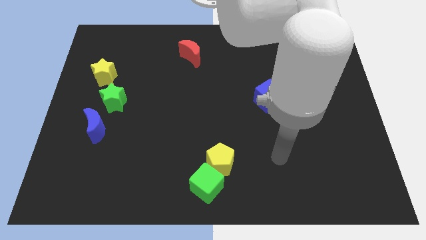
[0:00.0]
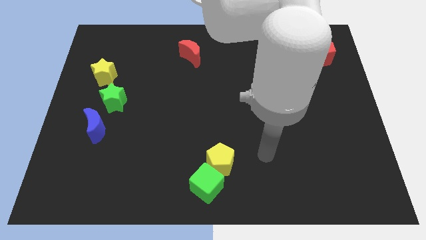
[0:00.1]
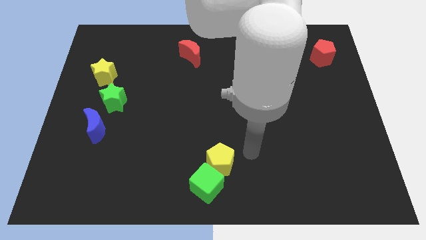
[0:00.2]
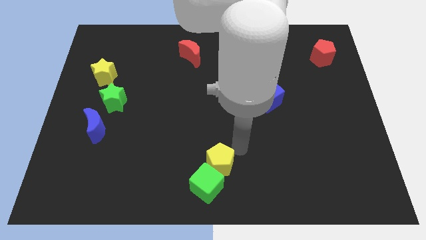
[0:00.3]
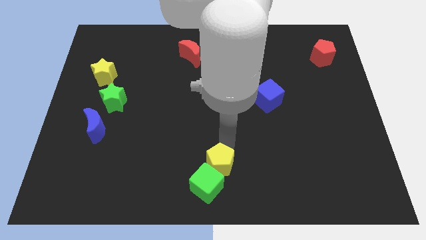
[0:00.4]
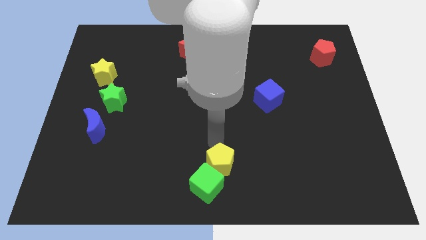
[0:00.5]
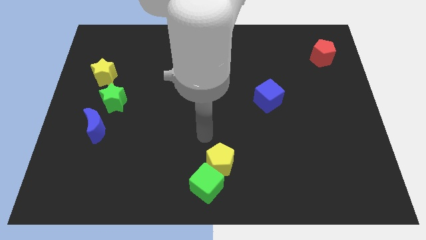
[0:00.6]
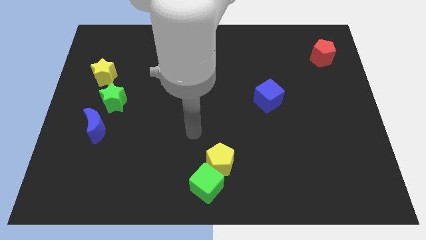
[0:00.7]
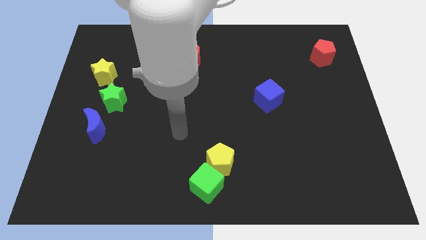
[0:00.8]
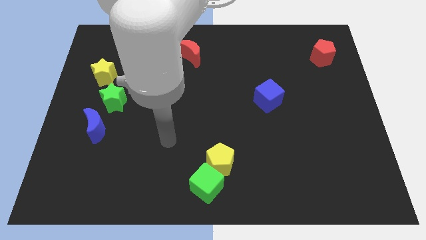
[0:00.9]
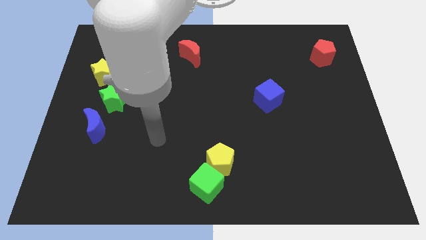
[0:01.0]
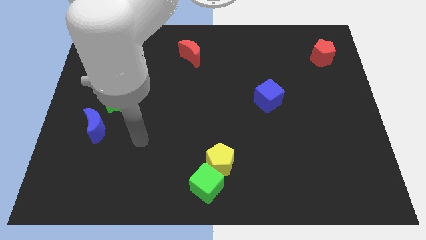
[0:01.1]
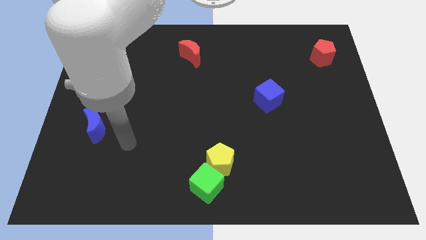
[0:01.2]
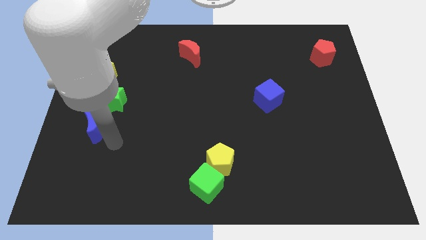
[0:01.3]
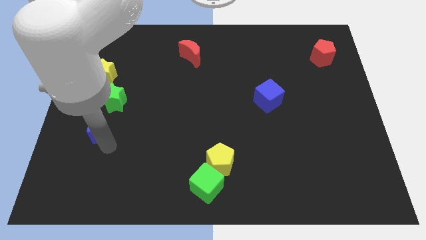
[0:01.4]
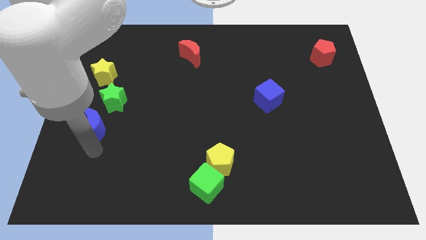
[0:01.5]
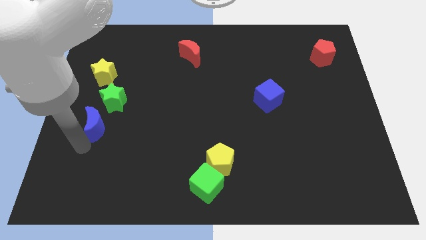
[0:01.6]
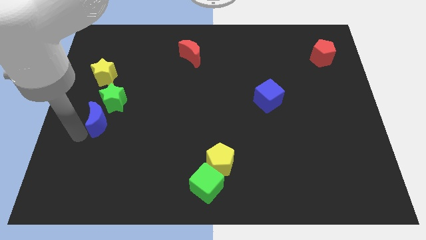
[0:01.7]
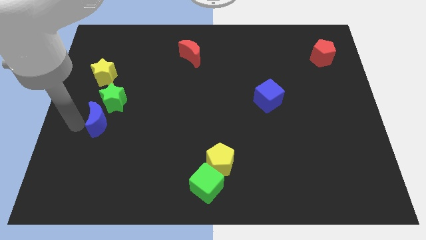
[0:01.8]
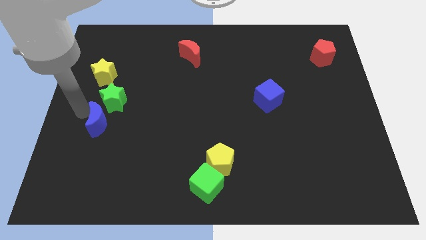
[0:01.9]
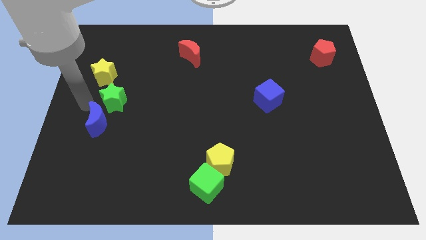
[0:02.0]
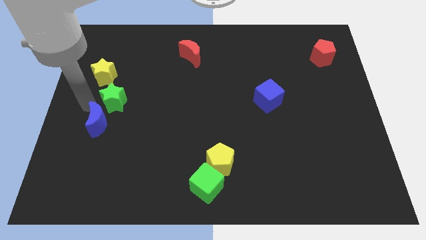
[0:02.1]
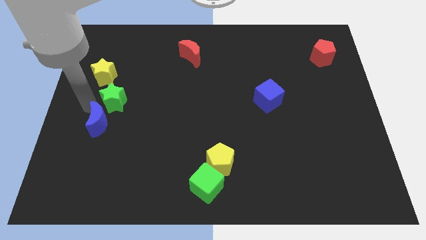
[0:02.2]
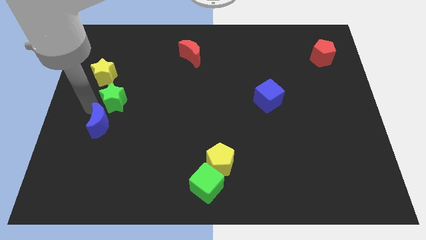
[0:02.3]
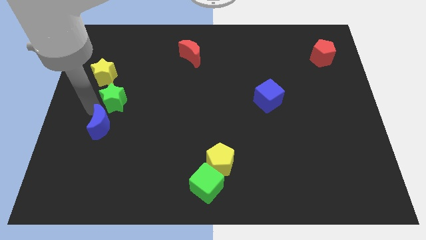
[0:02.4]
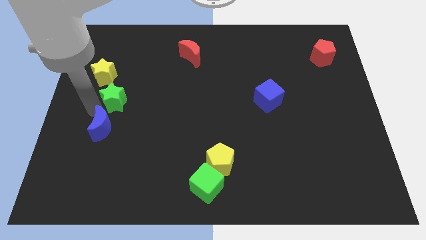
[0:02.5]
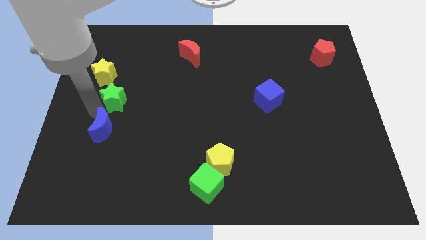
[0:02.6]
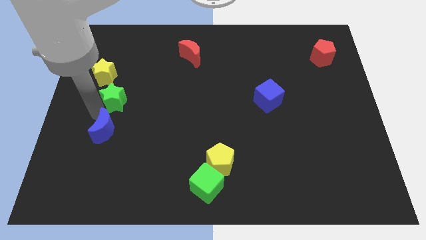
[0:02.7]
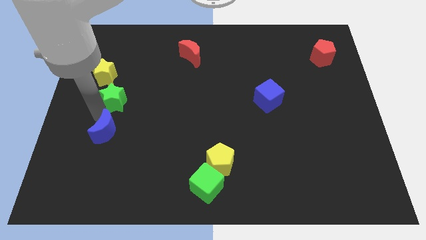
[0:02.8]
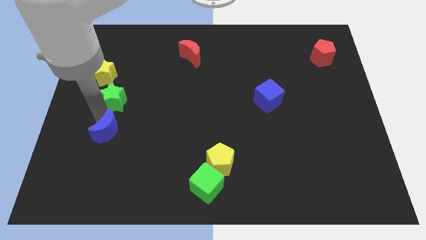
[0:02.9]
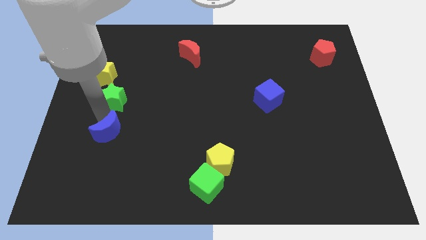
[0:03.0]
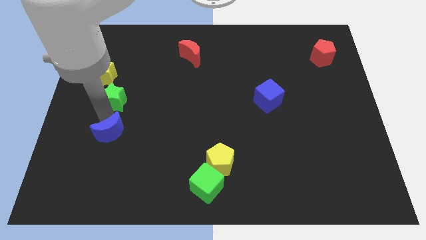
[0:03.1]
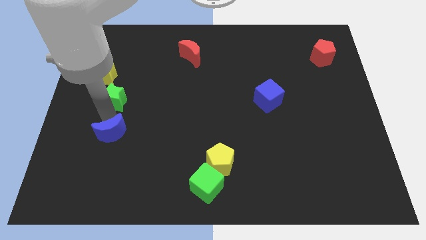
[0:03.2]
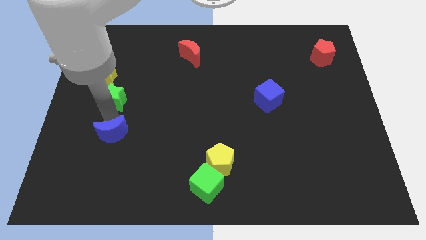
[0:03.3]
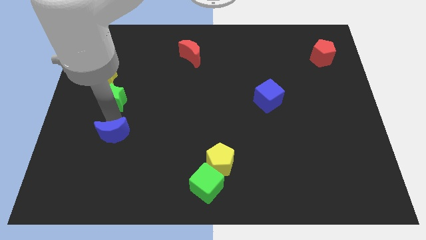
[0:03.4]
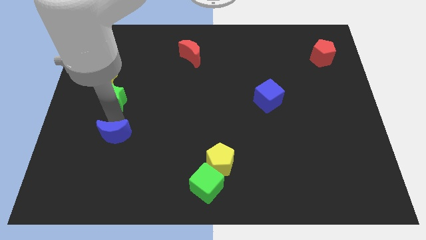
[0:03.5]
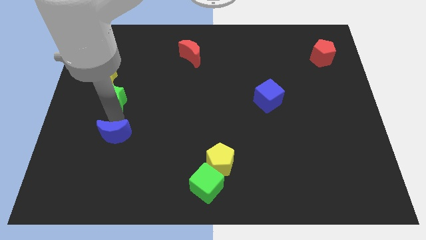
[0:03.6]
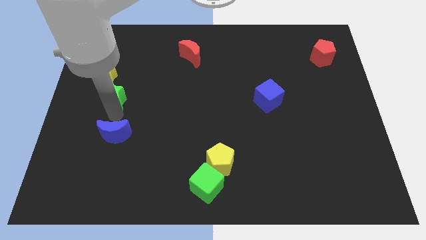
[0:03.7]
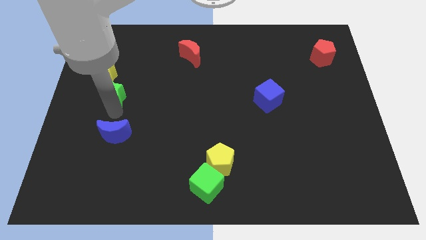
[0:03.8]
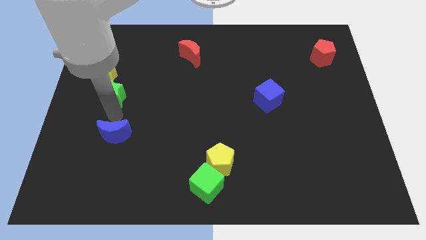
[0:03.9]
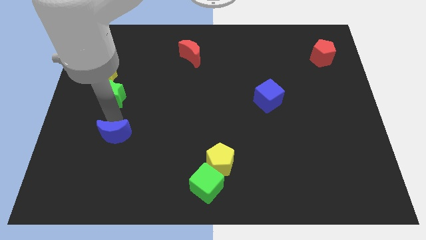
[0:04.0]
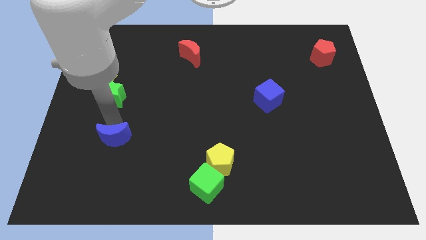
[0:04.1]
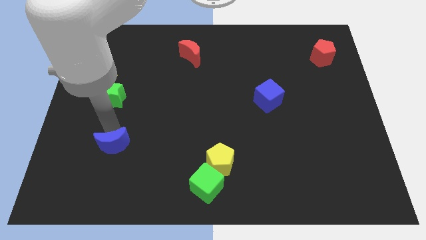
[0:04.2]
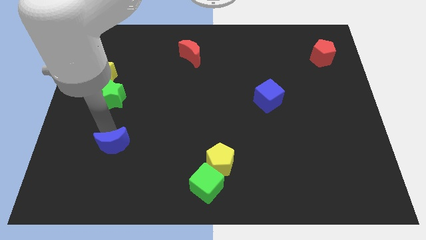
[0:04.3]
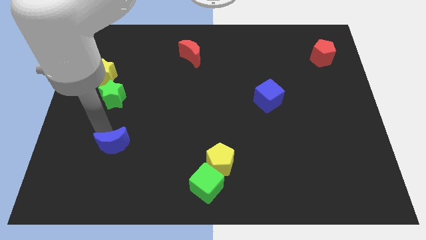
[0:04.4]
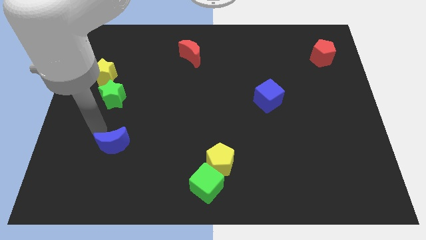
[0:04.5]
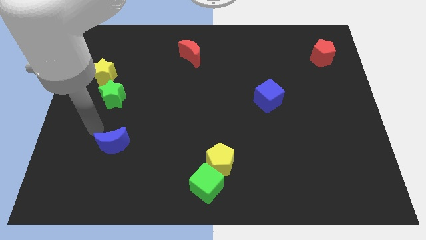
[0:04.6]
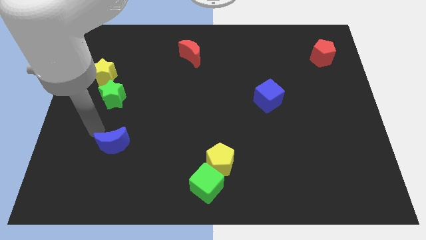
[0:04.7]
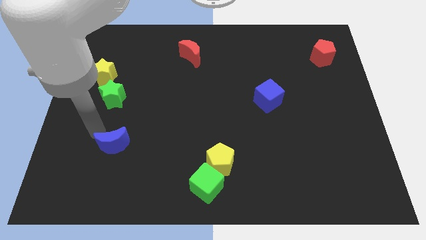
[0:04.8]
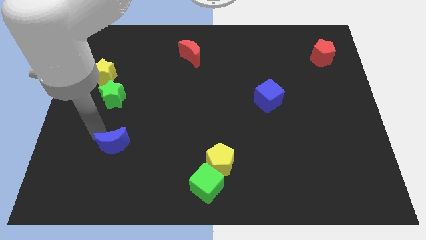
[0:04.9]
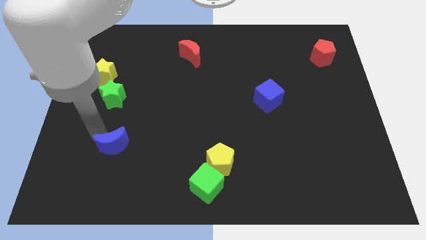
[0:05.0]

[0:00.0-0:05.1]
move the blue moon a bit downwards and to the right diagonally

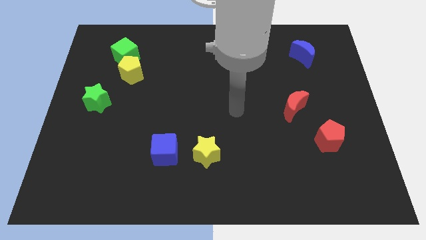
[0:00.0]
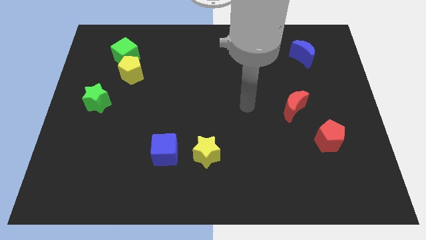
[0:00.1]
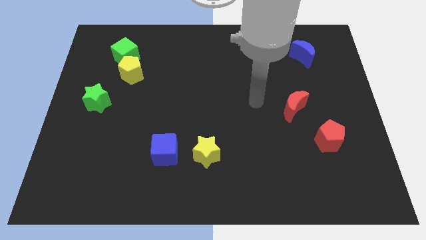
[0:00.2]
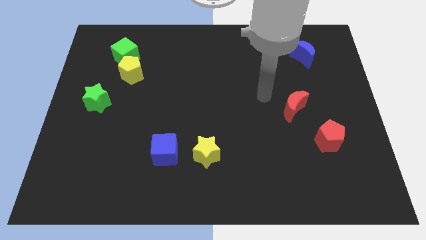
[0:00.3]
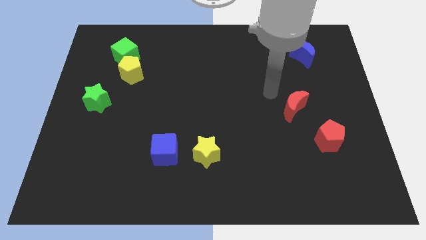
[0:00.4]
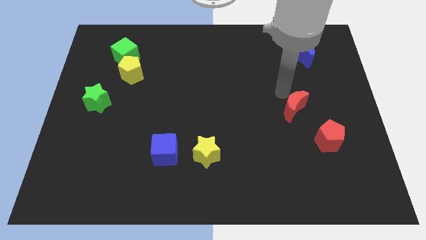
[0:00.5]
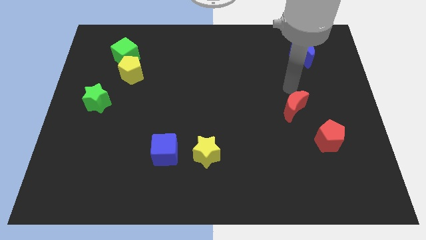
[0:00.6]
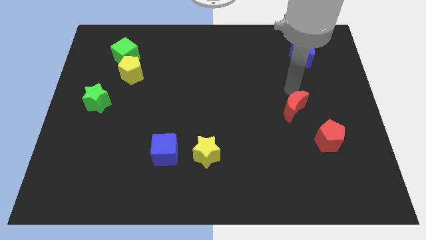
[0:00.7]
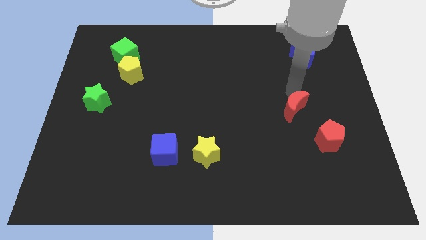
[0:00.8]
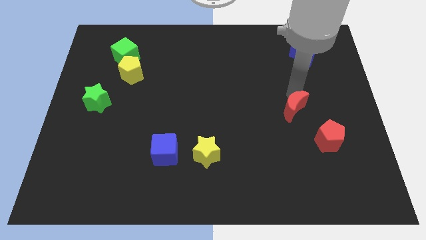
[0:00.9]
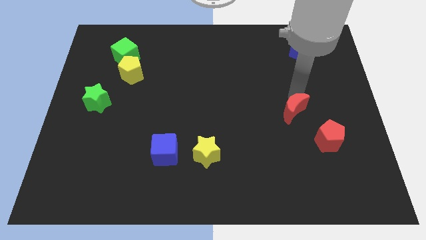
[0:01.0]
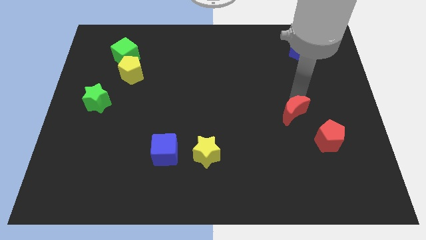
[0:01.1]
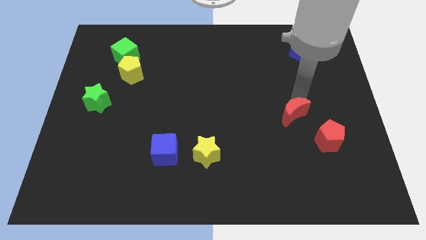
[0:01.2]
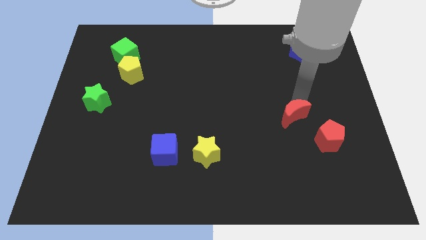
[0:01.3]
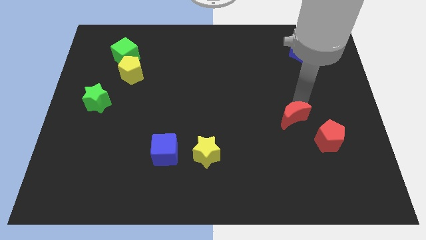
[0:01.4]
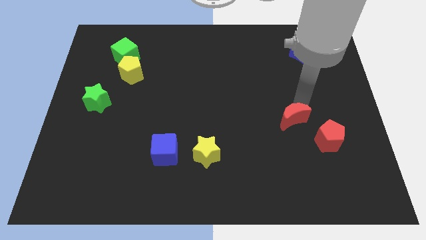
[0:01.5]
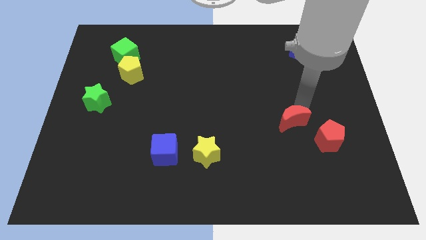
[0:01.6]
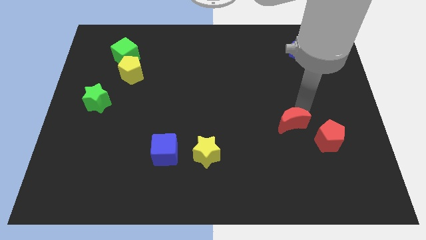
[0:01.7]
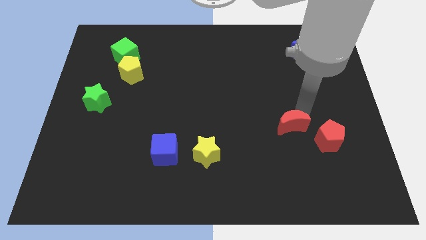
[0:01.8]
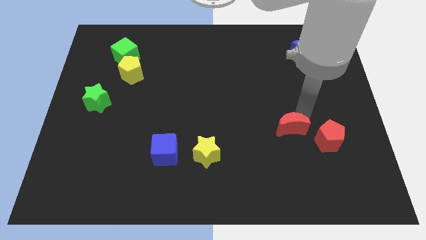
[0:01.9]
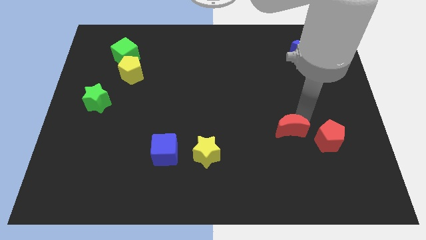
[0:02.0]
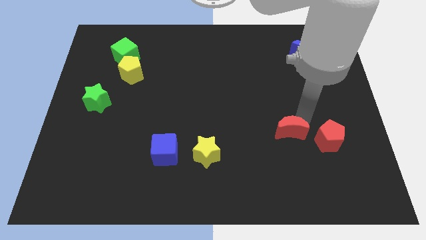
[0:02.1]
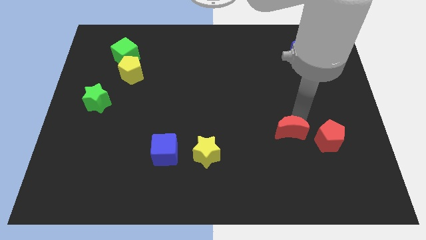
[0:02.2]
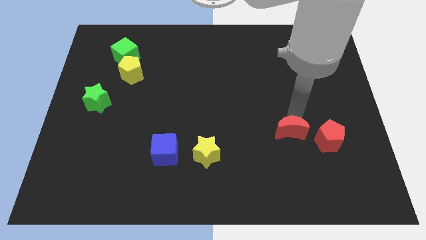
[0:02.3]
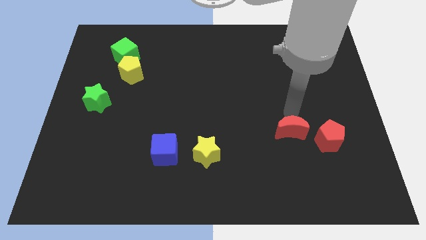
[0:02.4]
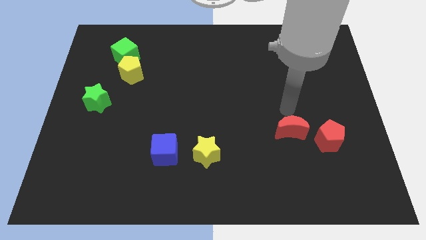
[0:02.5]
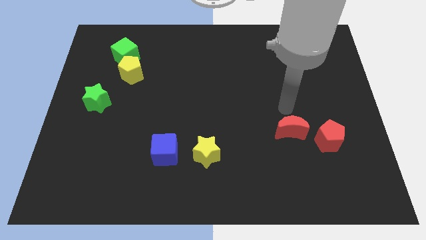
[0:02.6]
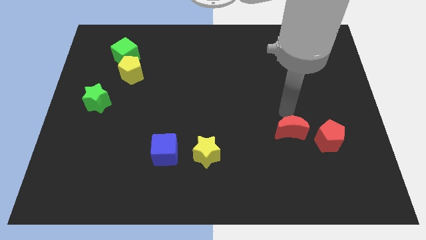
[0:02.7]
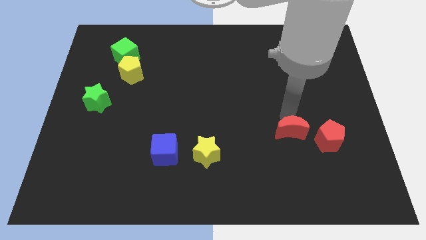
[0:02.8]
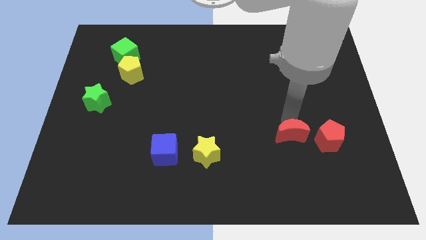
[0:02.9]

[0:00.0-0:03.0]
slightly move the red moon downwards
